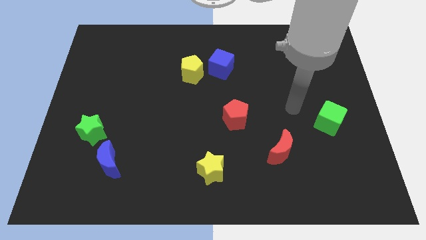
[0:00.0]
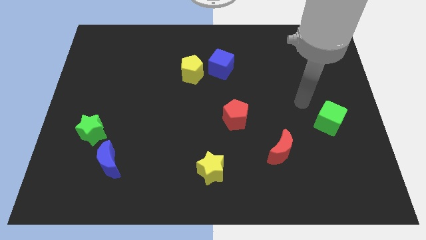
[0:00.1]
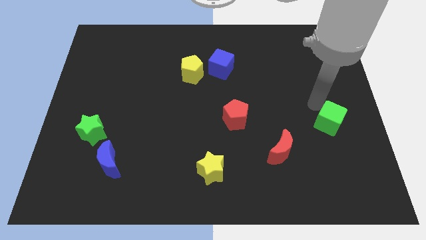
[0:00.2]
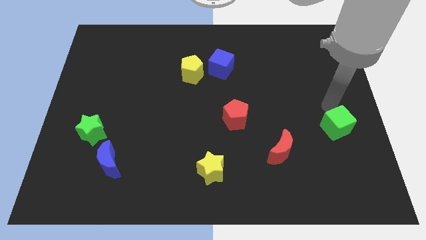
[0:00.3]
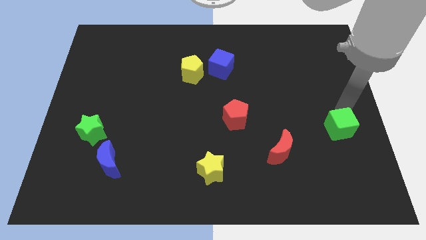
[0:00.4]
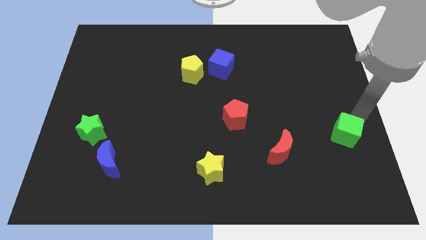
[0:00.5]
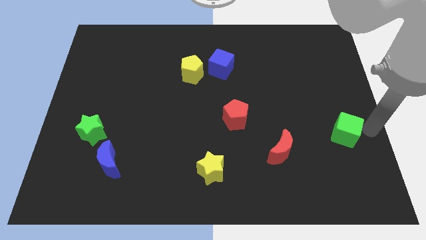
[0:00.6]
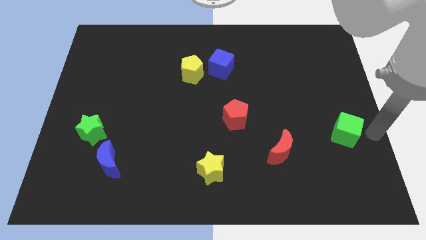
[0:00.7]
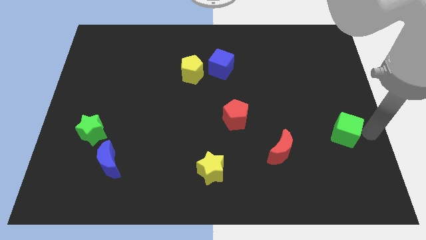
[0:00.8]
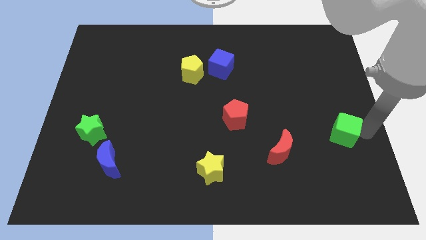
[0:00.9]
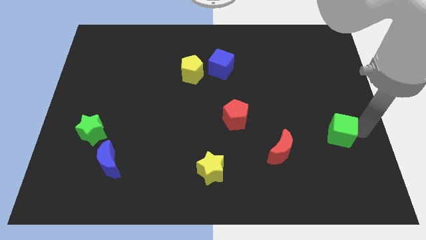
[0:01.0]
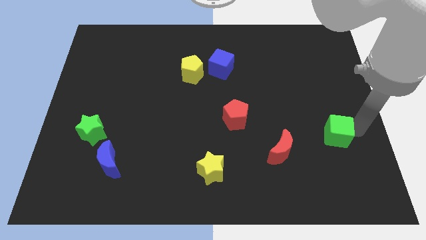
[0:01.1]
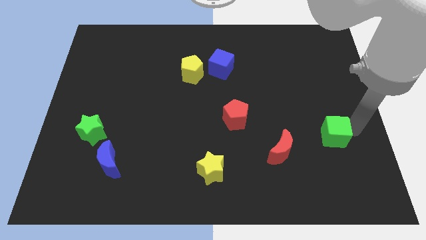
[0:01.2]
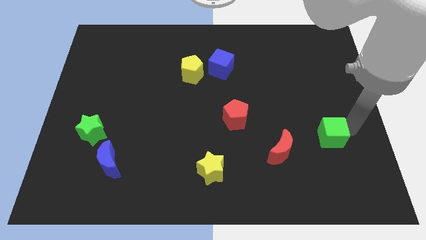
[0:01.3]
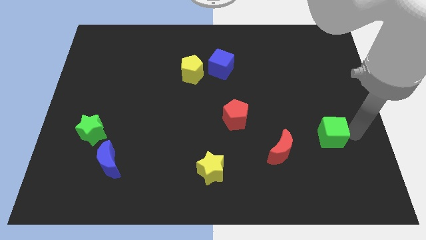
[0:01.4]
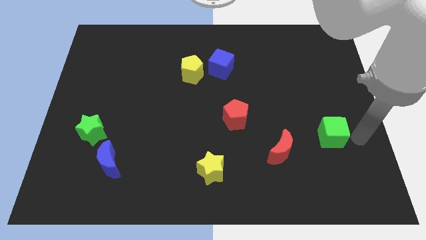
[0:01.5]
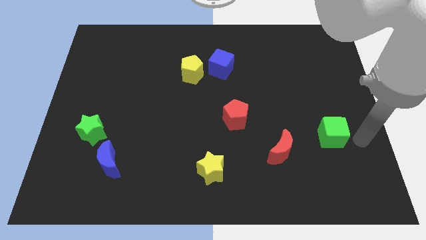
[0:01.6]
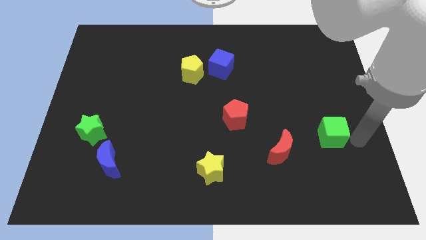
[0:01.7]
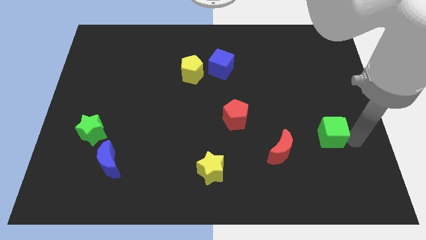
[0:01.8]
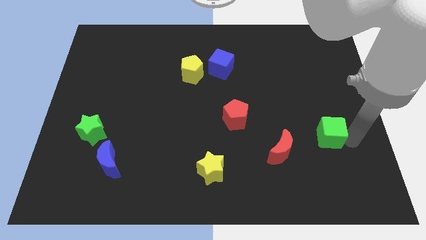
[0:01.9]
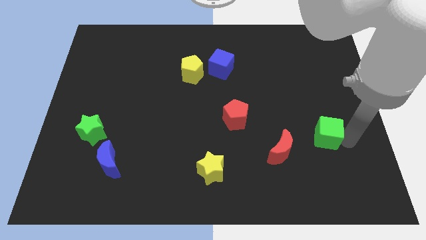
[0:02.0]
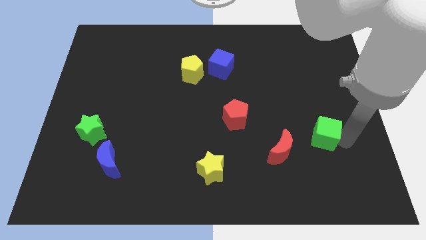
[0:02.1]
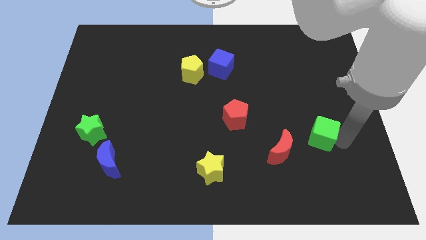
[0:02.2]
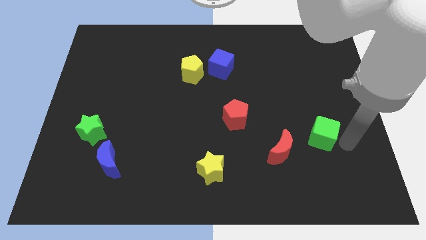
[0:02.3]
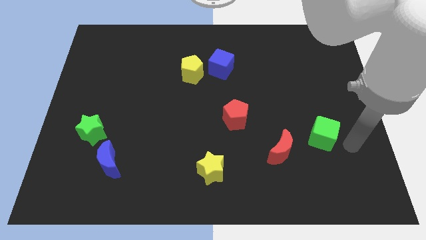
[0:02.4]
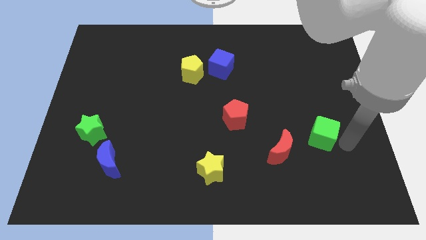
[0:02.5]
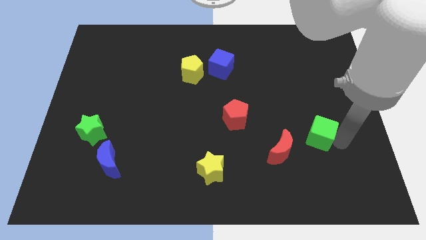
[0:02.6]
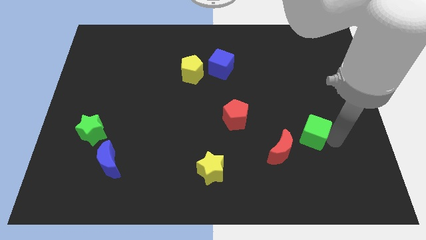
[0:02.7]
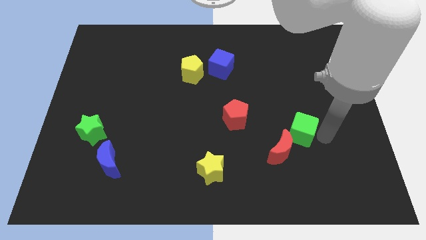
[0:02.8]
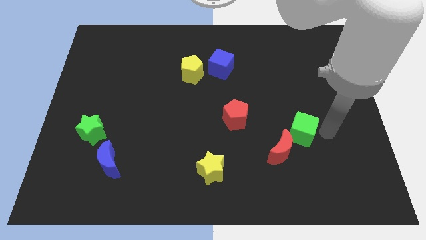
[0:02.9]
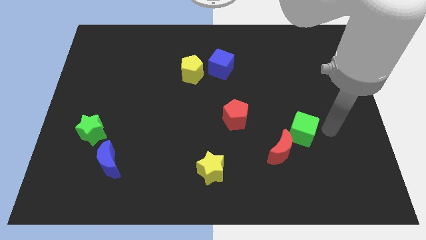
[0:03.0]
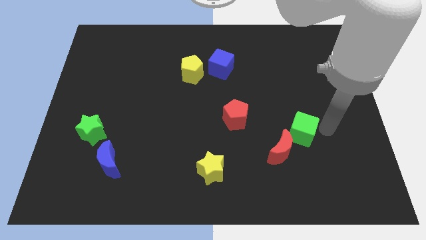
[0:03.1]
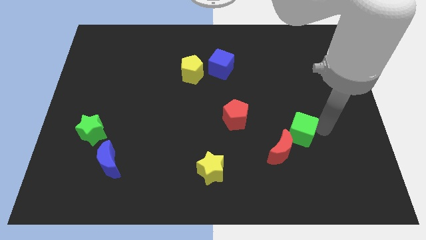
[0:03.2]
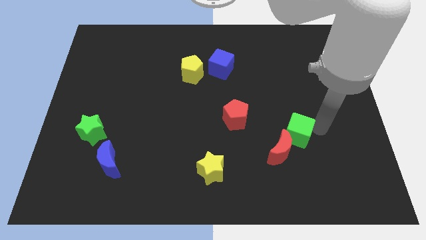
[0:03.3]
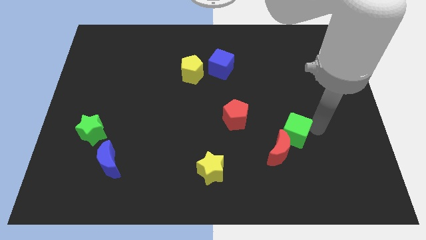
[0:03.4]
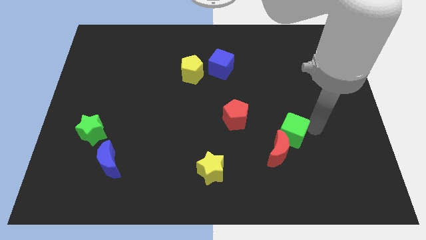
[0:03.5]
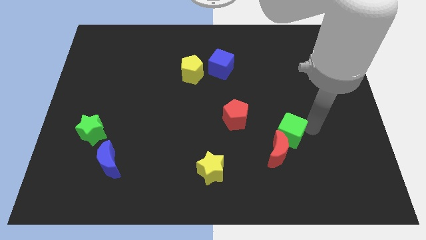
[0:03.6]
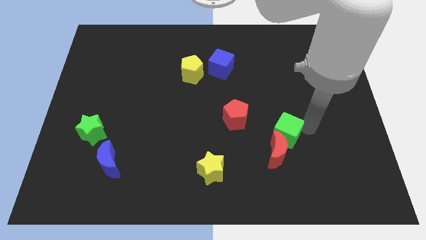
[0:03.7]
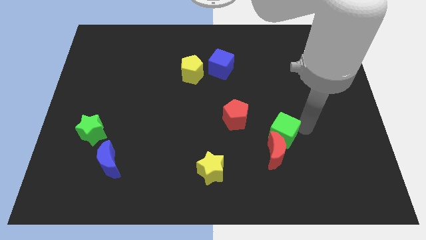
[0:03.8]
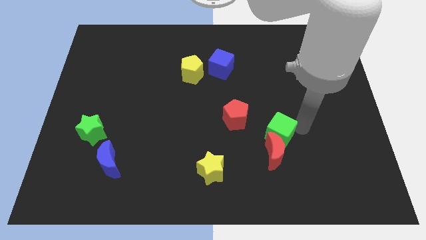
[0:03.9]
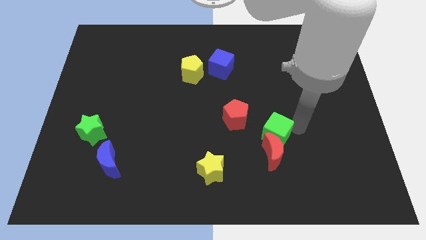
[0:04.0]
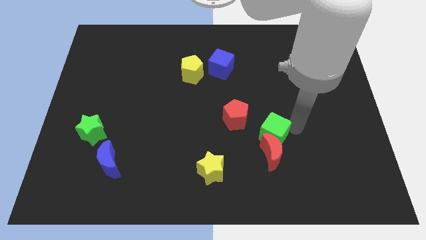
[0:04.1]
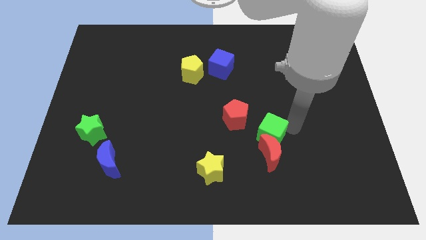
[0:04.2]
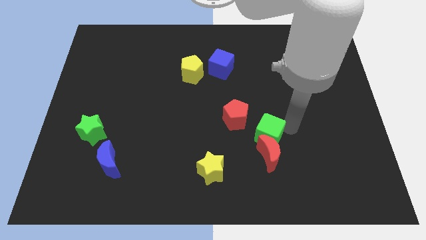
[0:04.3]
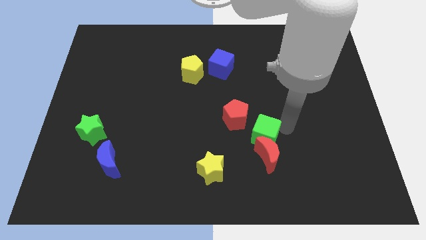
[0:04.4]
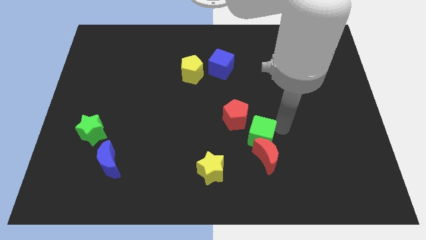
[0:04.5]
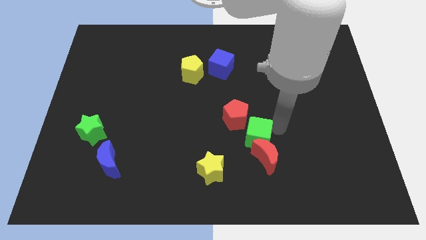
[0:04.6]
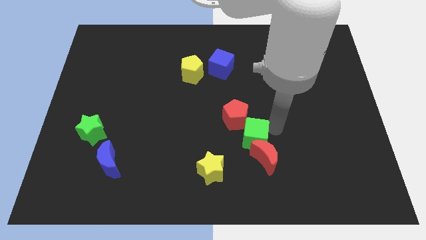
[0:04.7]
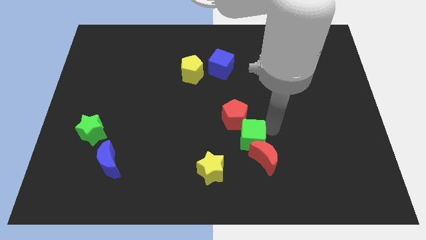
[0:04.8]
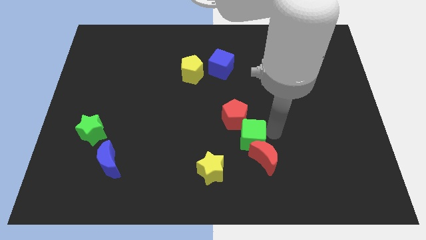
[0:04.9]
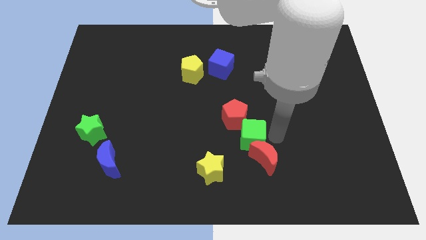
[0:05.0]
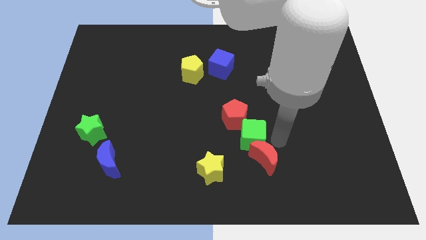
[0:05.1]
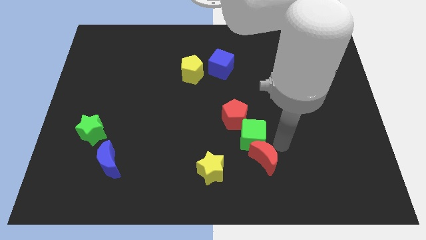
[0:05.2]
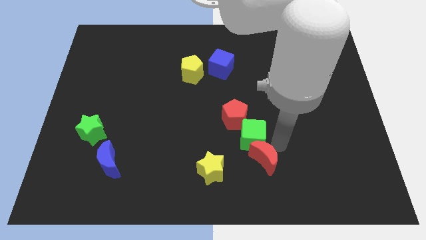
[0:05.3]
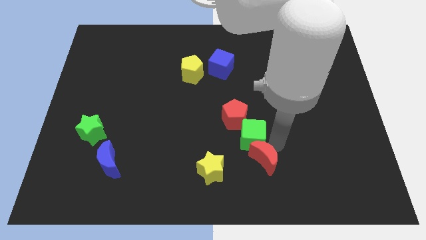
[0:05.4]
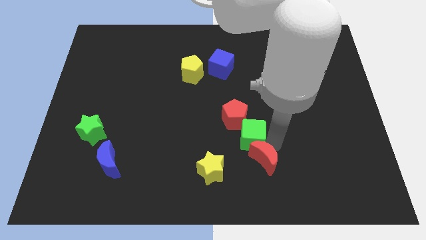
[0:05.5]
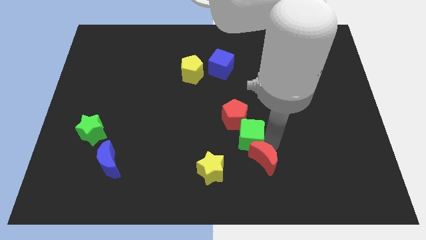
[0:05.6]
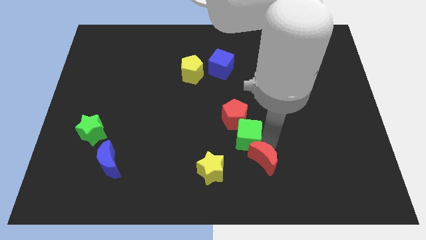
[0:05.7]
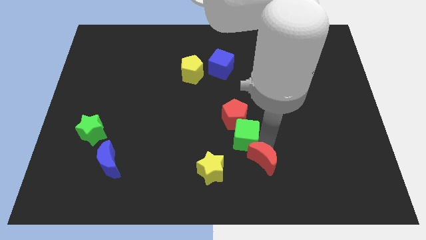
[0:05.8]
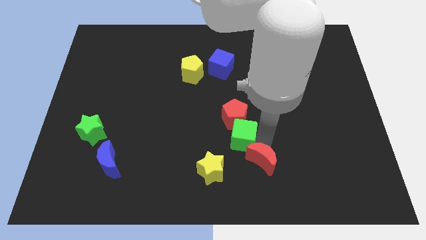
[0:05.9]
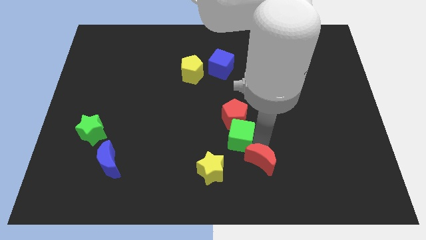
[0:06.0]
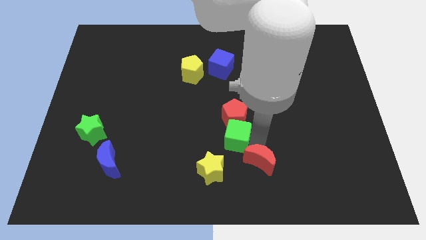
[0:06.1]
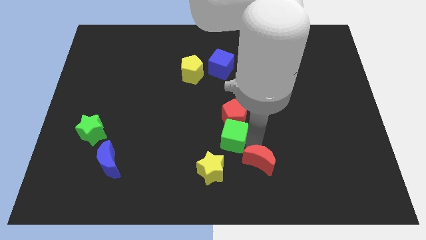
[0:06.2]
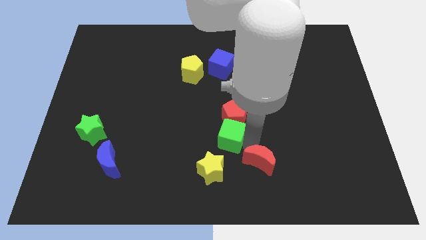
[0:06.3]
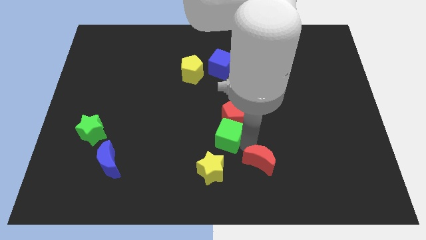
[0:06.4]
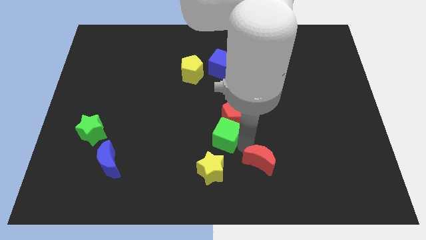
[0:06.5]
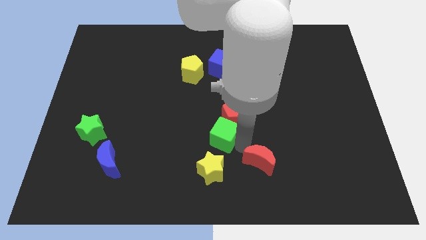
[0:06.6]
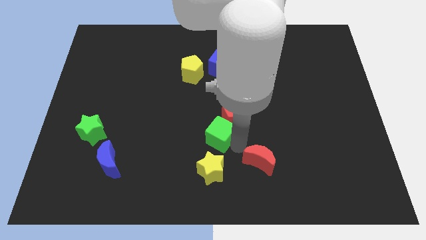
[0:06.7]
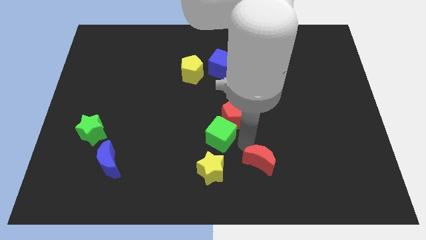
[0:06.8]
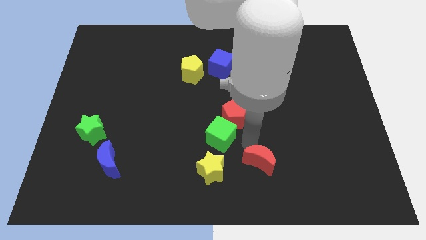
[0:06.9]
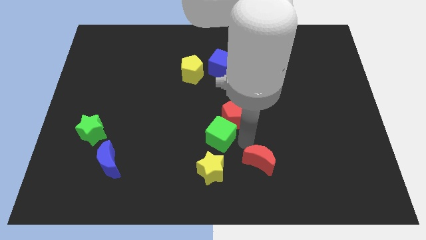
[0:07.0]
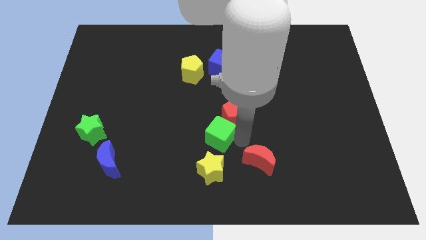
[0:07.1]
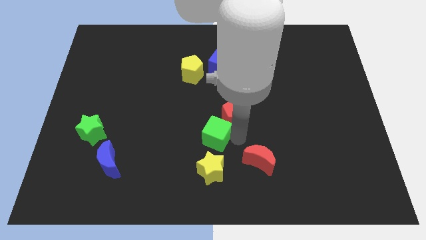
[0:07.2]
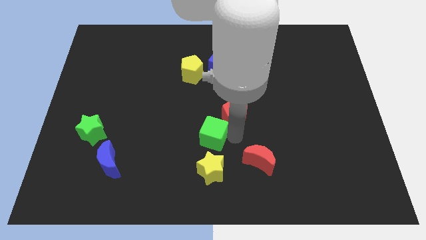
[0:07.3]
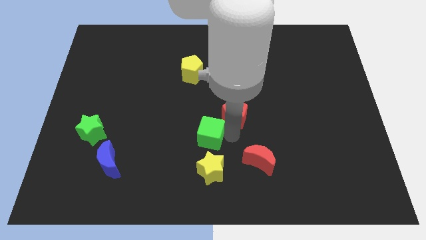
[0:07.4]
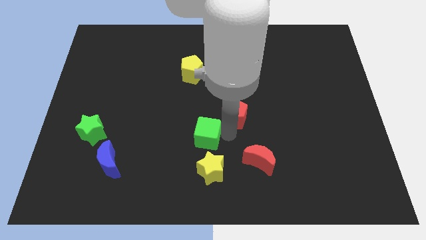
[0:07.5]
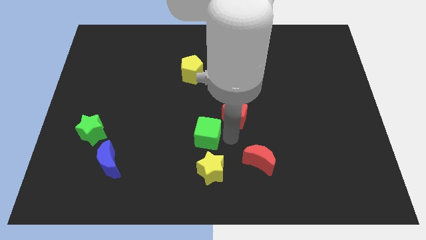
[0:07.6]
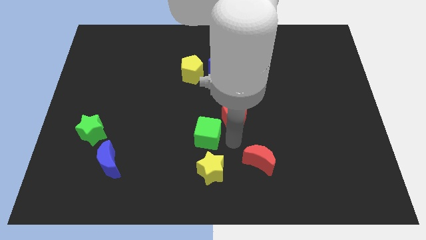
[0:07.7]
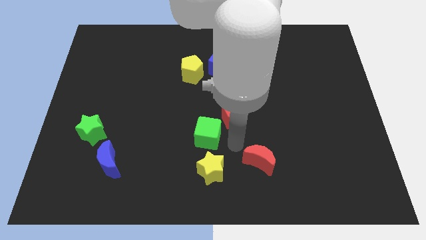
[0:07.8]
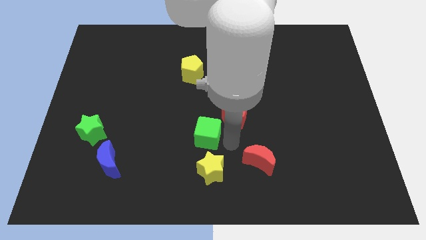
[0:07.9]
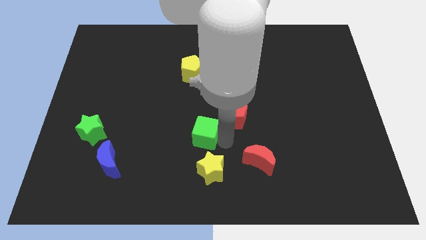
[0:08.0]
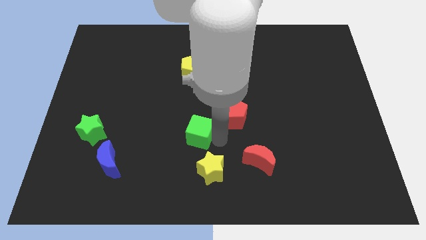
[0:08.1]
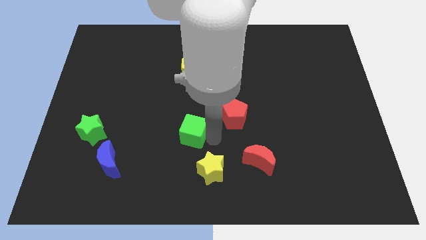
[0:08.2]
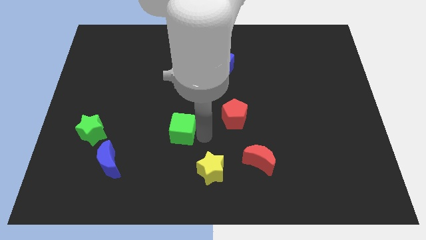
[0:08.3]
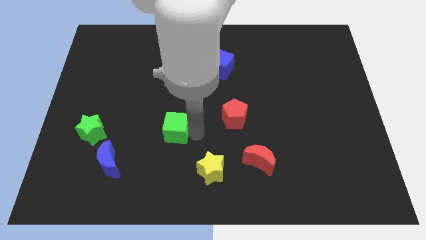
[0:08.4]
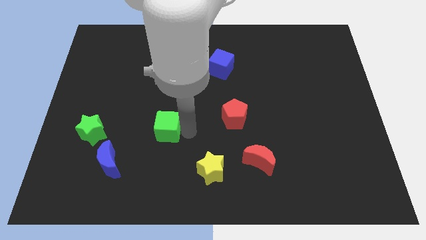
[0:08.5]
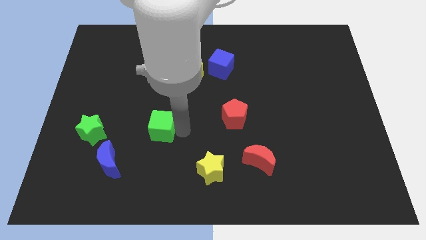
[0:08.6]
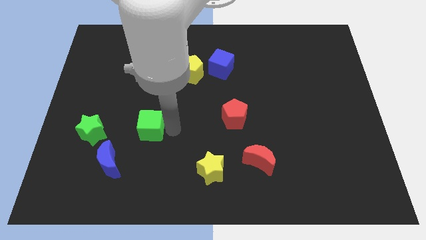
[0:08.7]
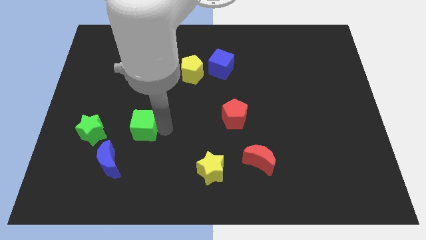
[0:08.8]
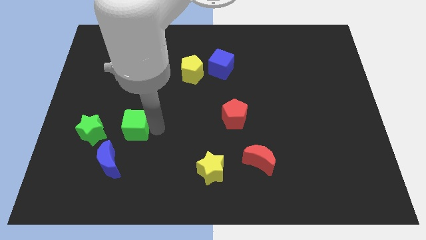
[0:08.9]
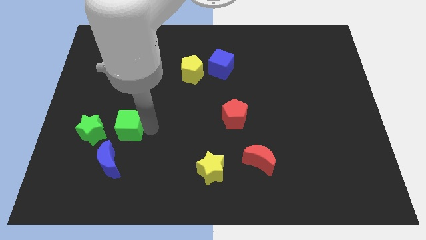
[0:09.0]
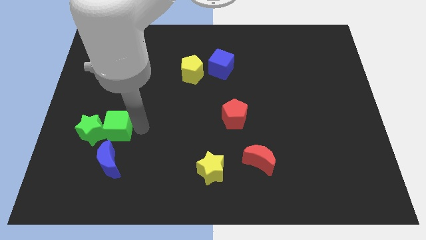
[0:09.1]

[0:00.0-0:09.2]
move the green cube to the green star
